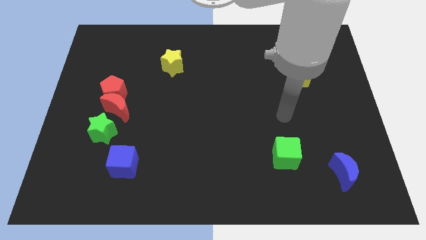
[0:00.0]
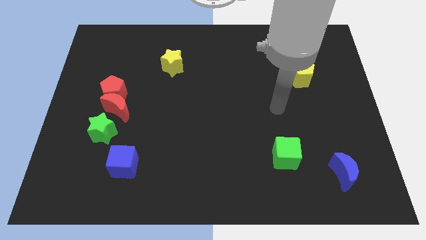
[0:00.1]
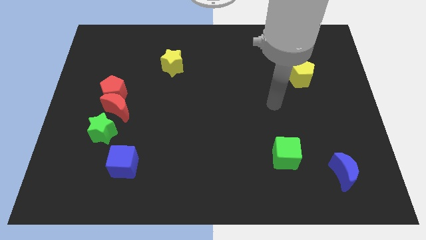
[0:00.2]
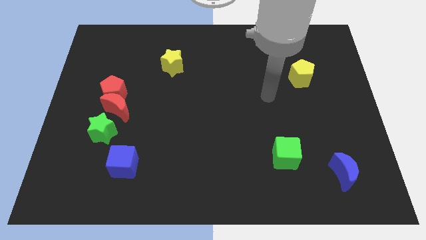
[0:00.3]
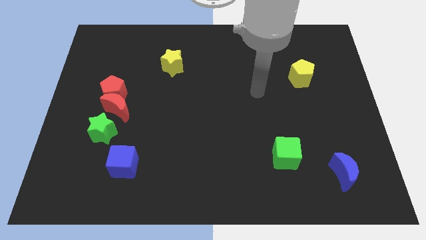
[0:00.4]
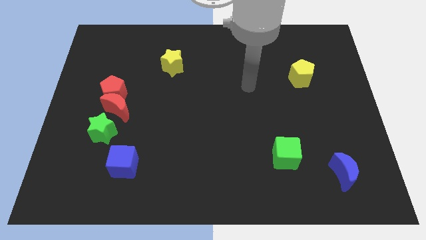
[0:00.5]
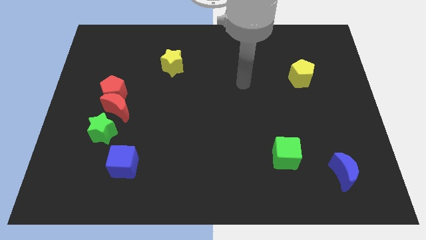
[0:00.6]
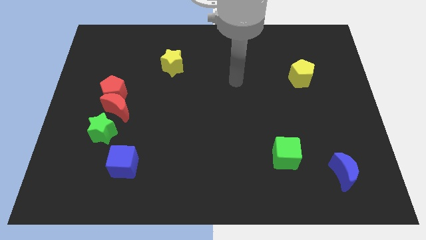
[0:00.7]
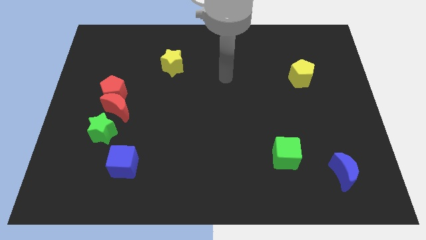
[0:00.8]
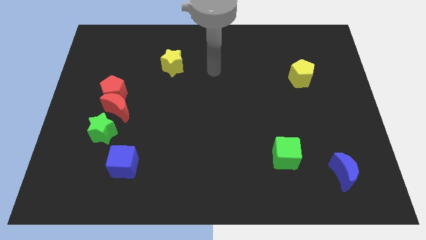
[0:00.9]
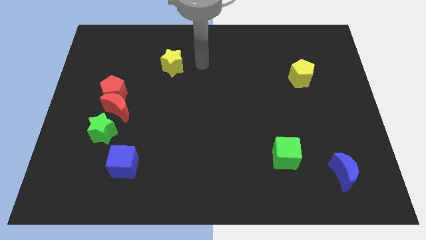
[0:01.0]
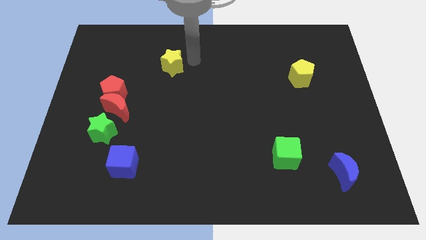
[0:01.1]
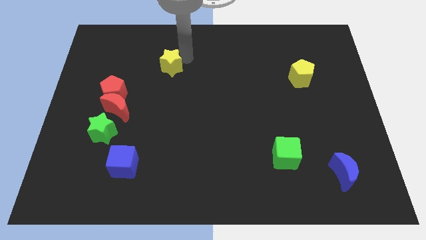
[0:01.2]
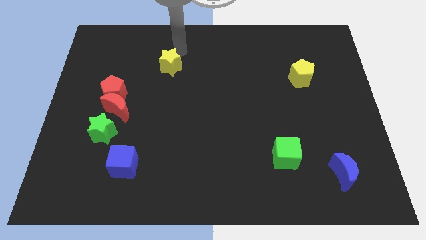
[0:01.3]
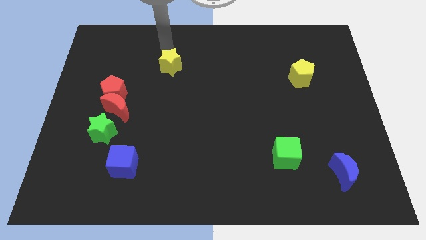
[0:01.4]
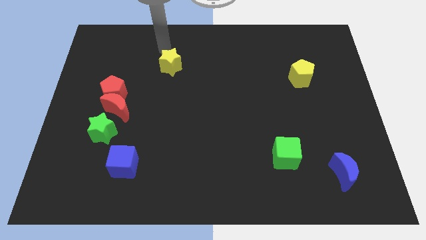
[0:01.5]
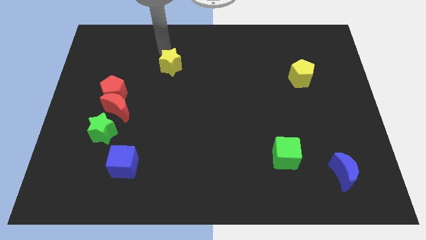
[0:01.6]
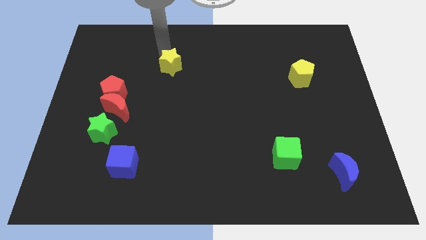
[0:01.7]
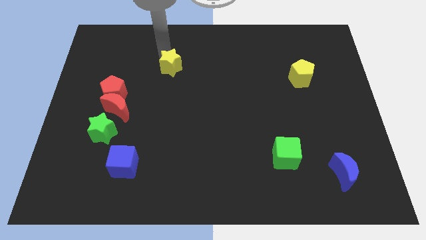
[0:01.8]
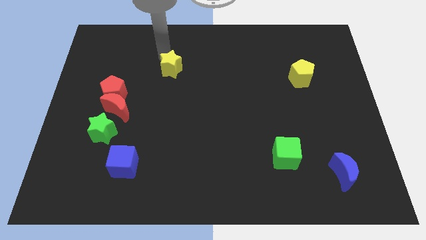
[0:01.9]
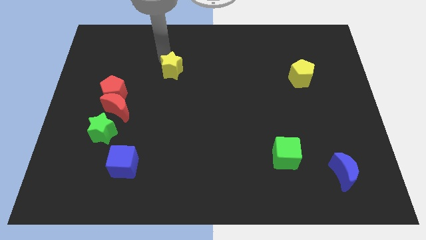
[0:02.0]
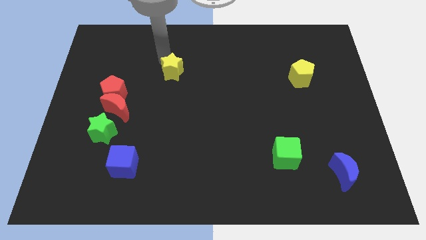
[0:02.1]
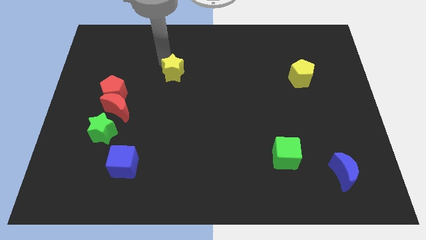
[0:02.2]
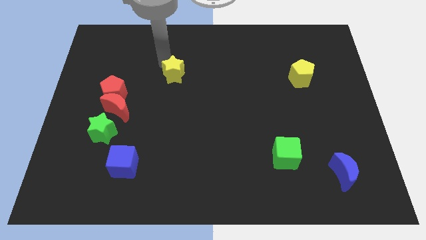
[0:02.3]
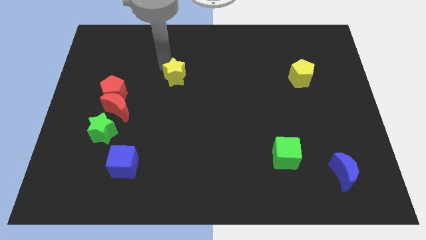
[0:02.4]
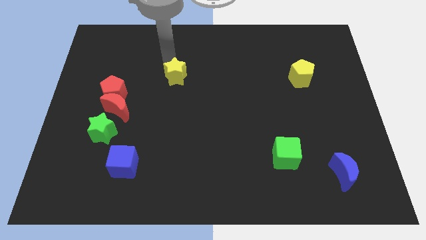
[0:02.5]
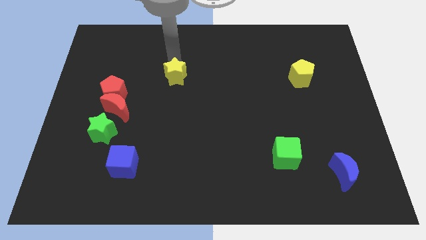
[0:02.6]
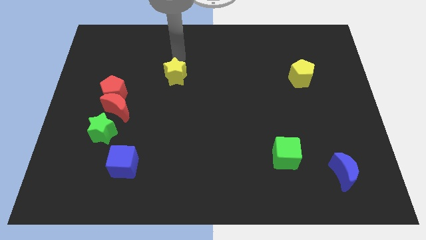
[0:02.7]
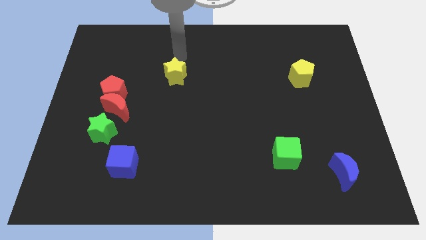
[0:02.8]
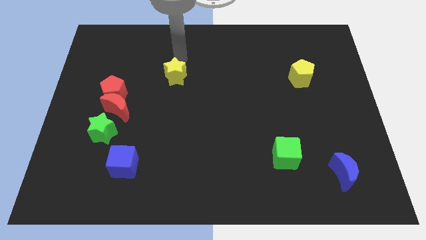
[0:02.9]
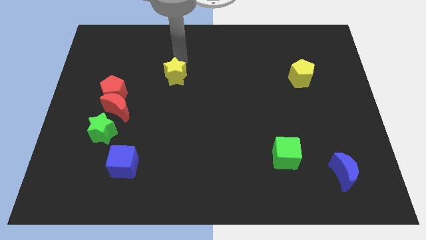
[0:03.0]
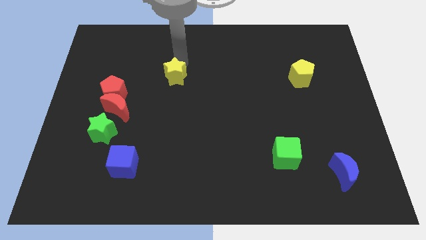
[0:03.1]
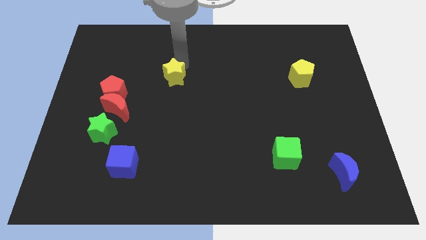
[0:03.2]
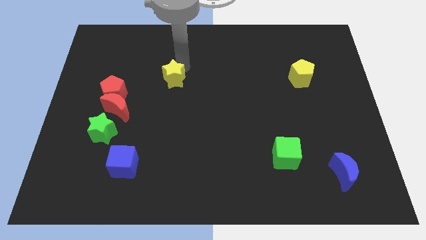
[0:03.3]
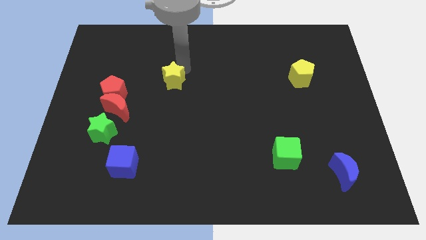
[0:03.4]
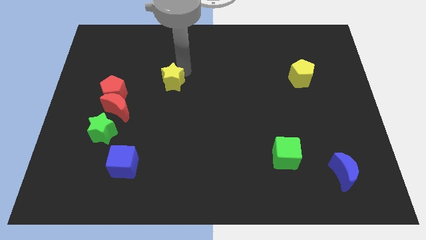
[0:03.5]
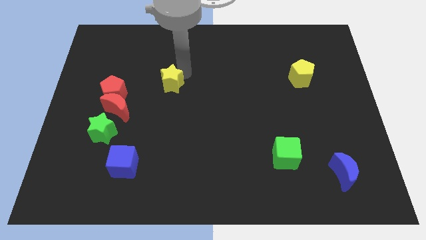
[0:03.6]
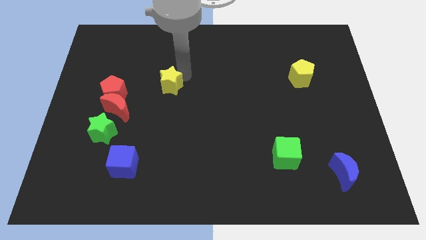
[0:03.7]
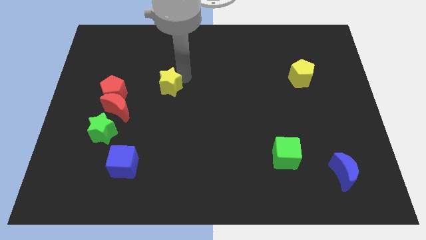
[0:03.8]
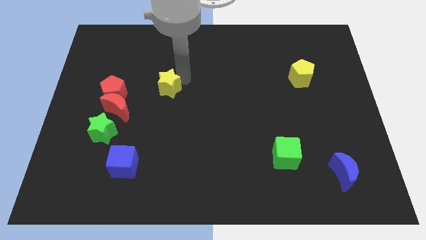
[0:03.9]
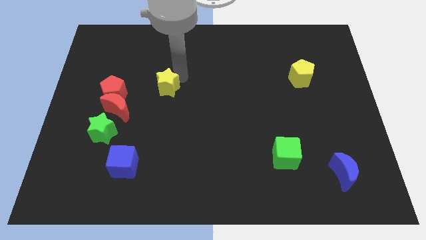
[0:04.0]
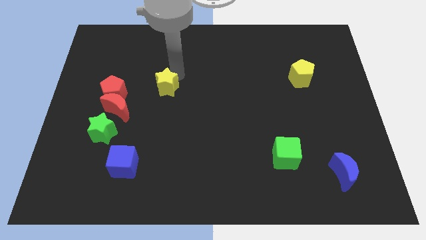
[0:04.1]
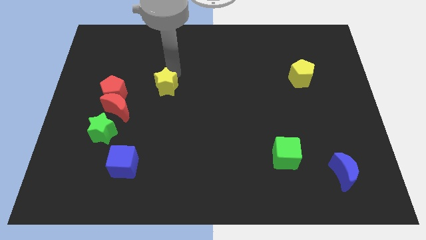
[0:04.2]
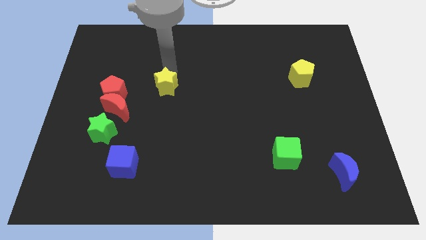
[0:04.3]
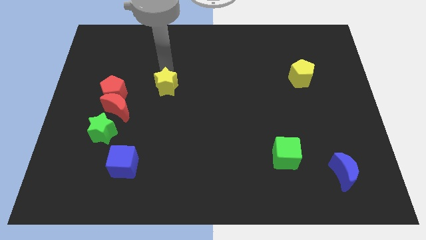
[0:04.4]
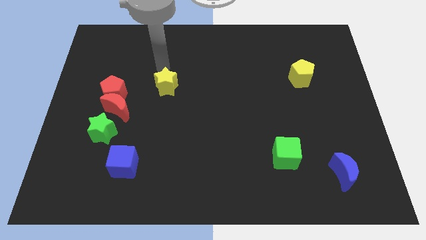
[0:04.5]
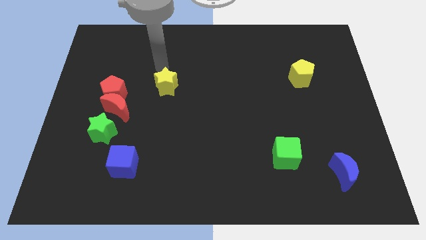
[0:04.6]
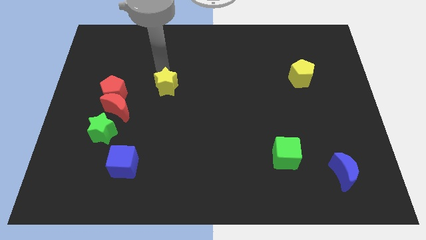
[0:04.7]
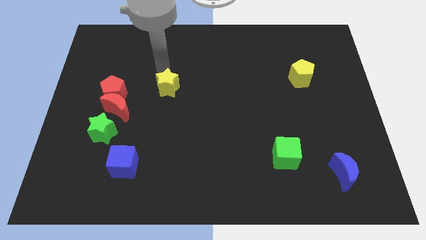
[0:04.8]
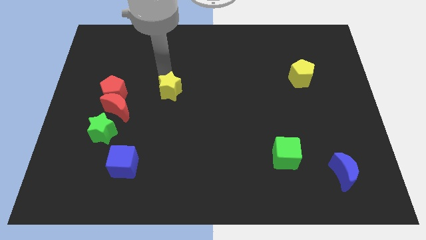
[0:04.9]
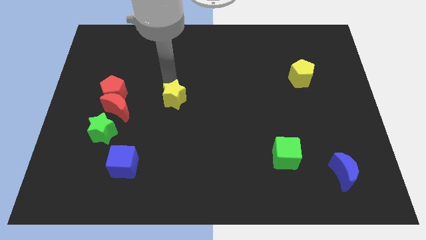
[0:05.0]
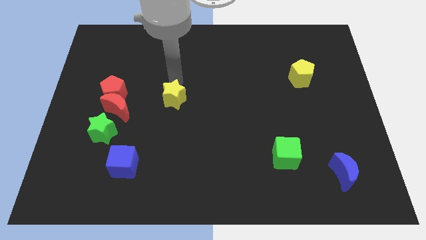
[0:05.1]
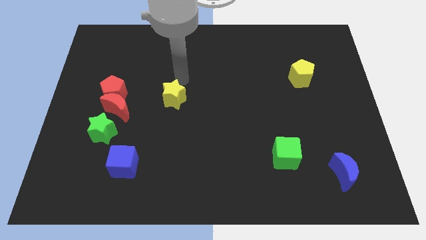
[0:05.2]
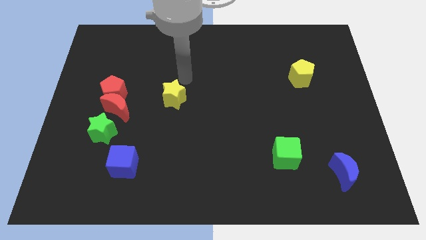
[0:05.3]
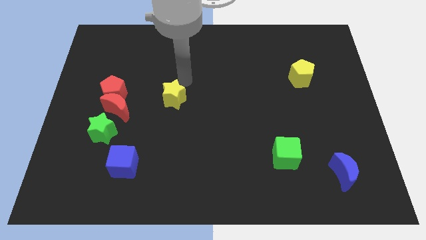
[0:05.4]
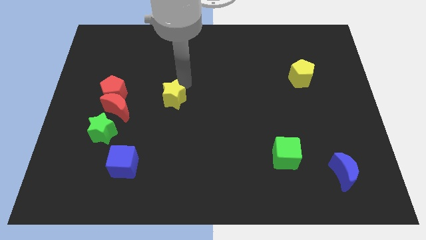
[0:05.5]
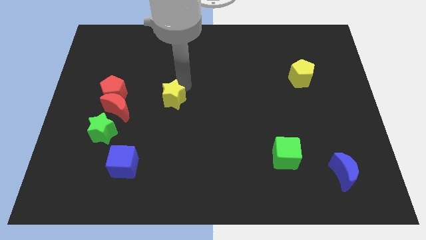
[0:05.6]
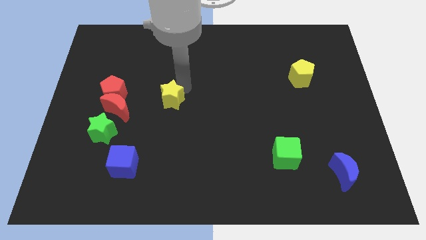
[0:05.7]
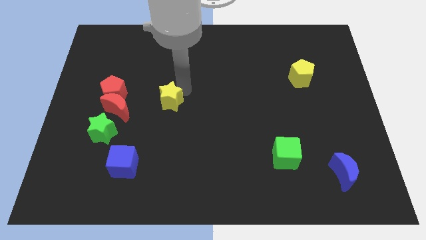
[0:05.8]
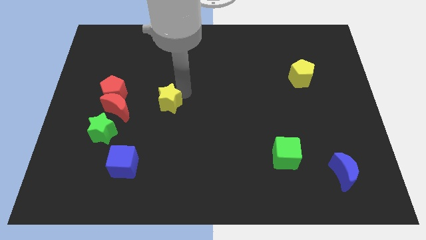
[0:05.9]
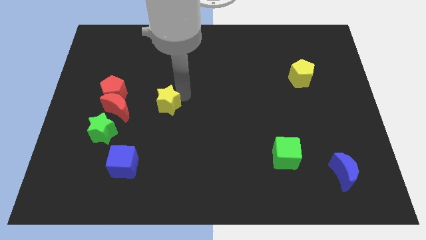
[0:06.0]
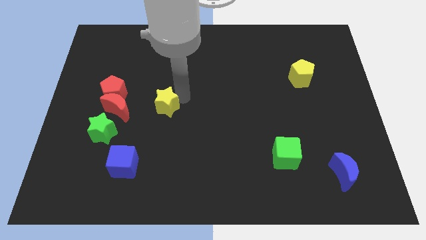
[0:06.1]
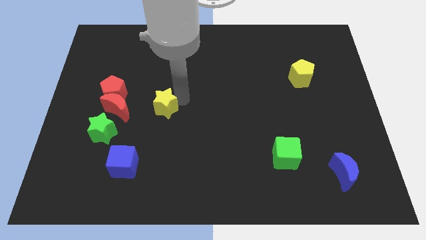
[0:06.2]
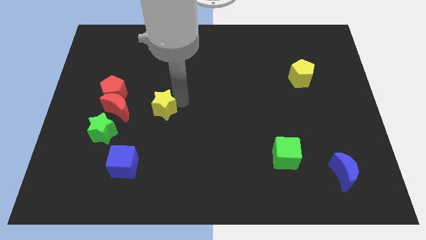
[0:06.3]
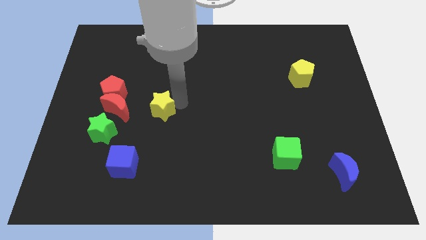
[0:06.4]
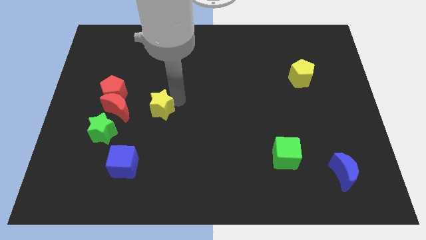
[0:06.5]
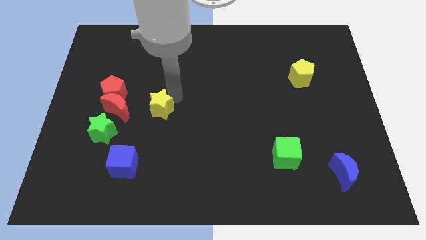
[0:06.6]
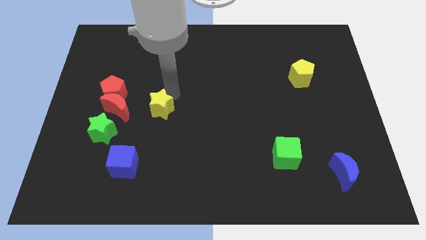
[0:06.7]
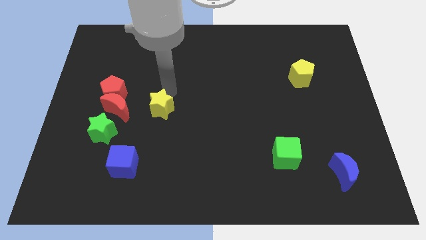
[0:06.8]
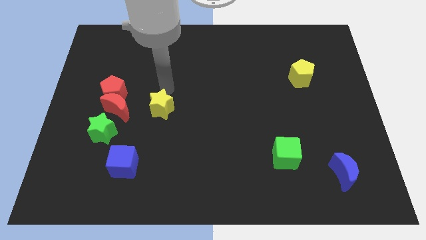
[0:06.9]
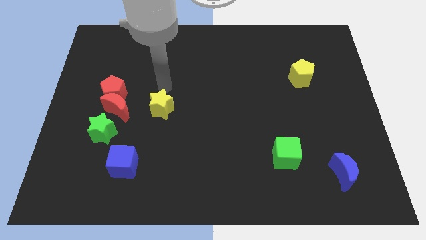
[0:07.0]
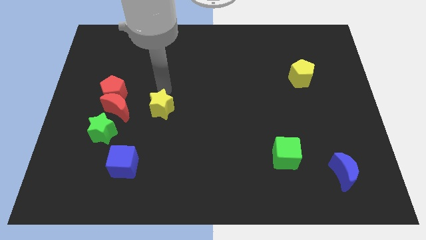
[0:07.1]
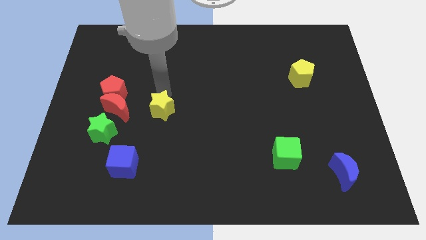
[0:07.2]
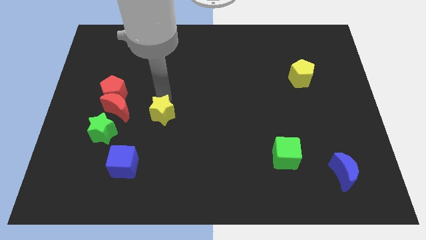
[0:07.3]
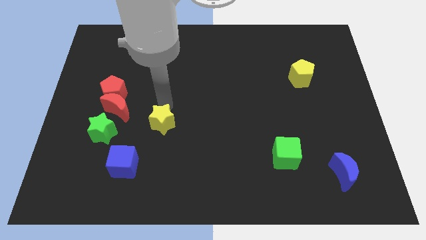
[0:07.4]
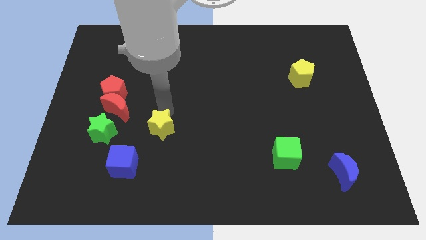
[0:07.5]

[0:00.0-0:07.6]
push the yellow star diagonally up and to the right of the blue cube
